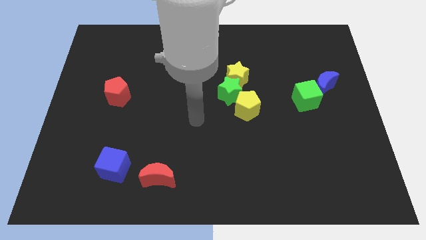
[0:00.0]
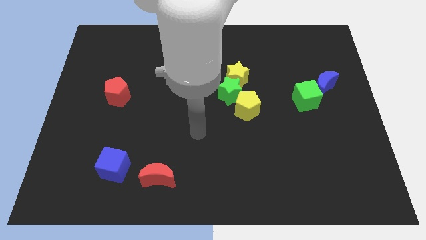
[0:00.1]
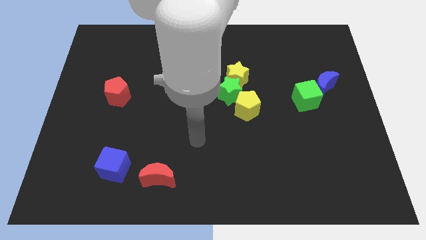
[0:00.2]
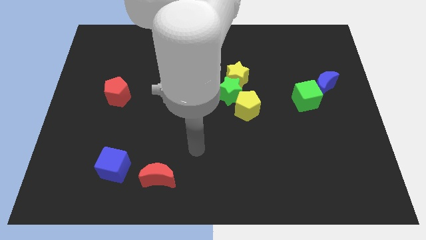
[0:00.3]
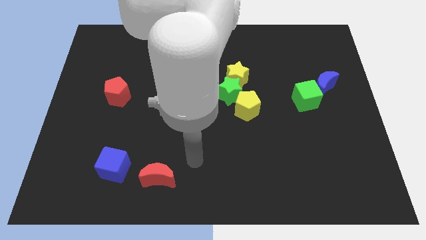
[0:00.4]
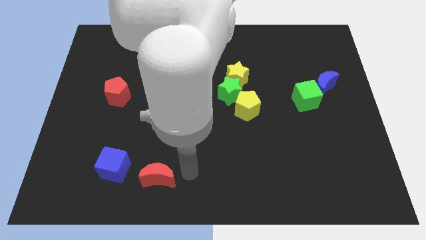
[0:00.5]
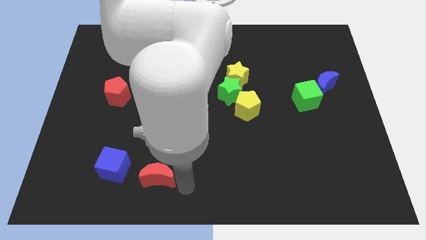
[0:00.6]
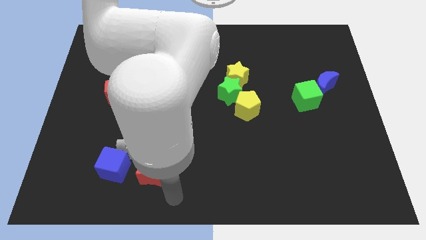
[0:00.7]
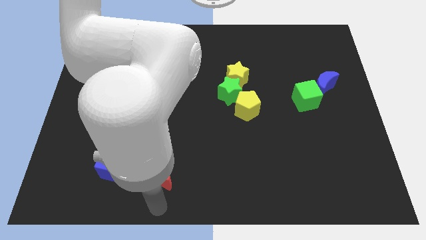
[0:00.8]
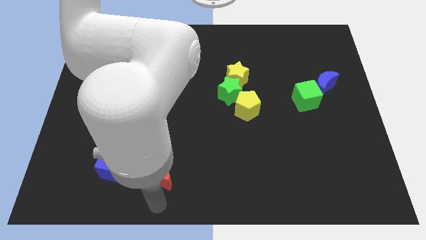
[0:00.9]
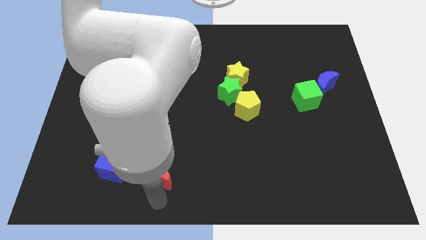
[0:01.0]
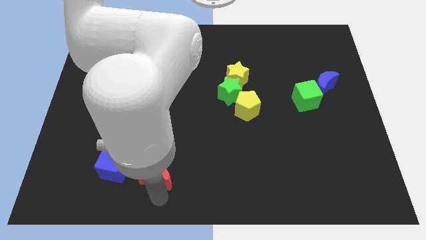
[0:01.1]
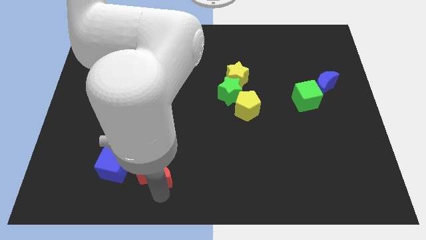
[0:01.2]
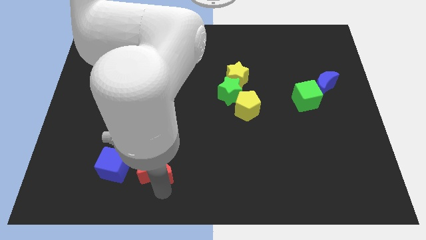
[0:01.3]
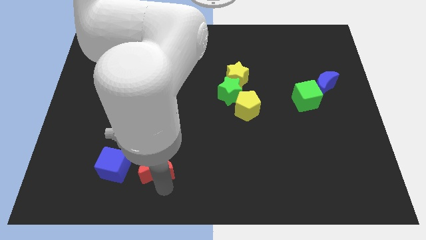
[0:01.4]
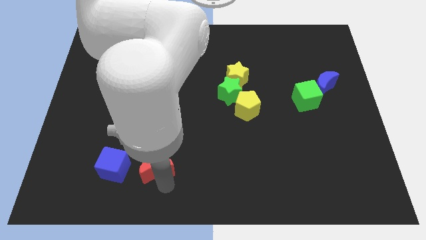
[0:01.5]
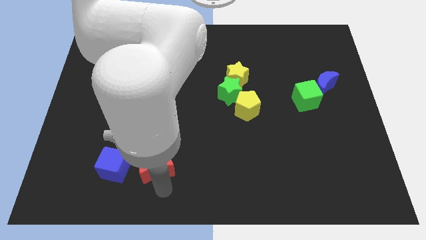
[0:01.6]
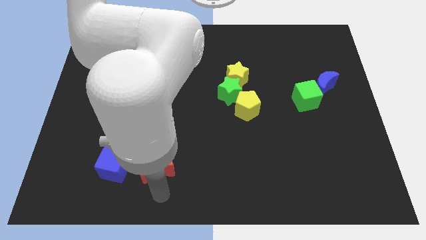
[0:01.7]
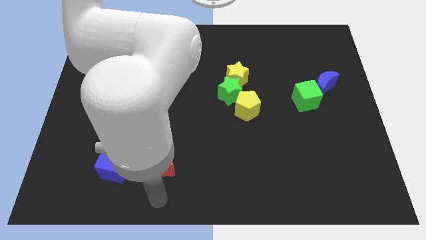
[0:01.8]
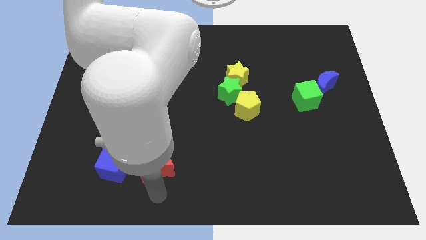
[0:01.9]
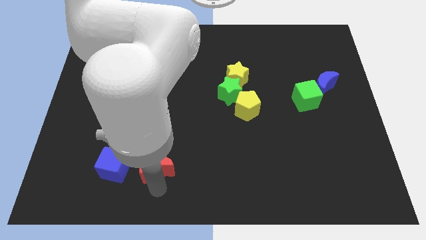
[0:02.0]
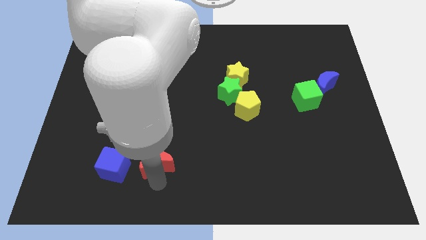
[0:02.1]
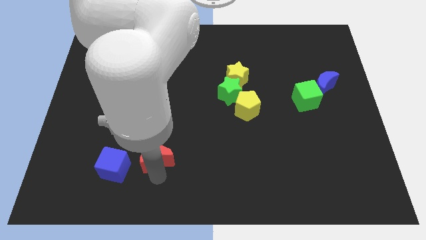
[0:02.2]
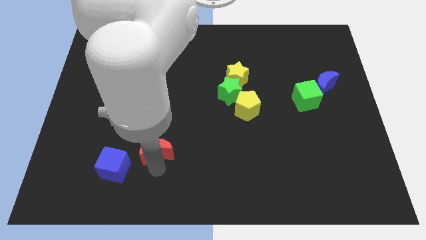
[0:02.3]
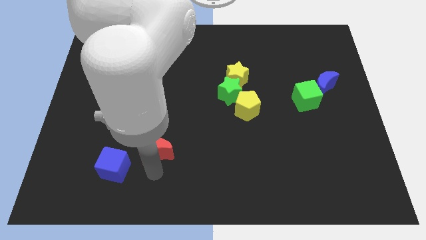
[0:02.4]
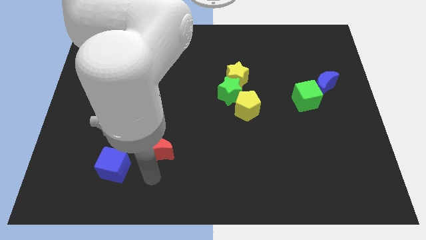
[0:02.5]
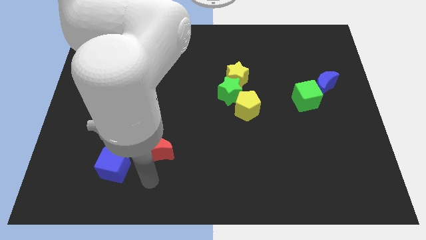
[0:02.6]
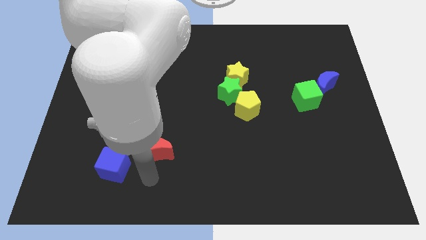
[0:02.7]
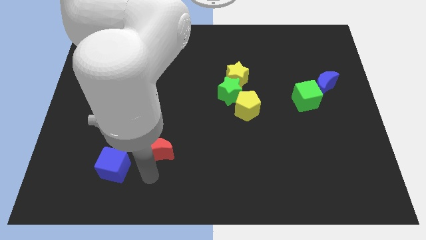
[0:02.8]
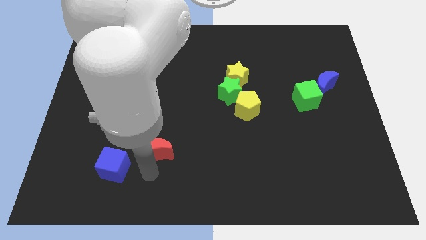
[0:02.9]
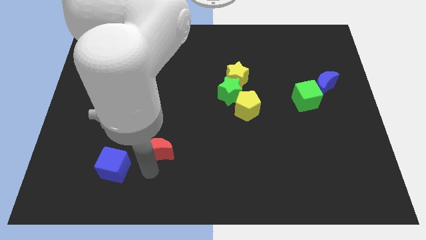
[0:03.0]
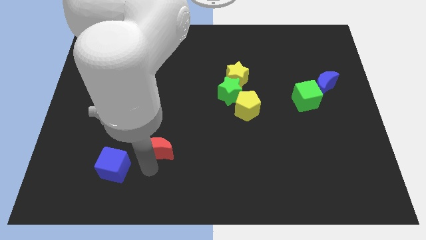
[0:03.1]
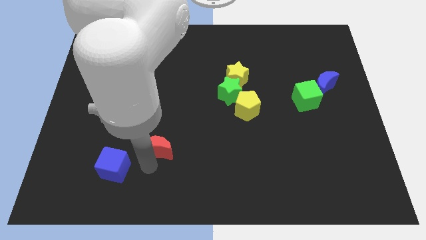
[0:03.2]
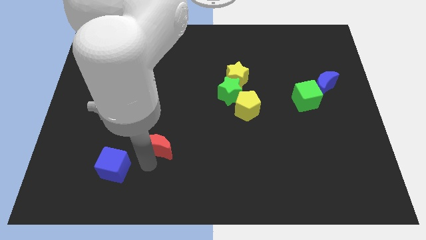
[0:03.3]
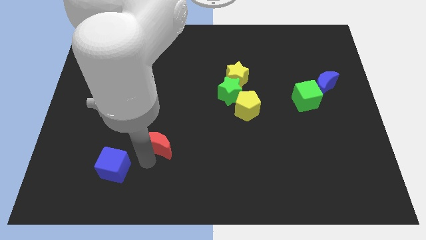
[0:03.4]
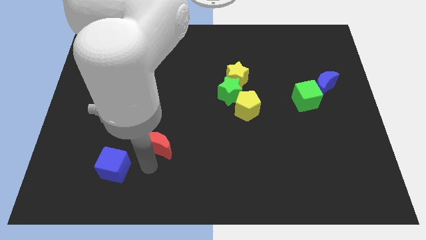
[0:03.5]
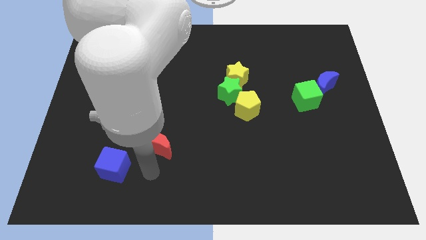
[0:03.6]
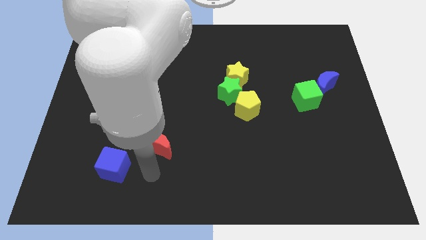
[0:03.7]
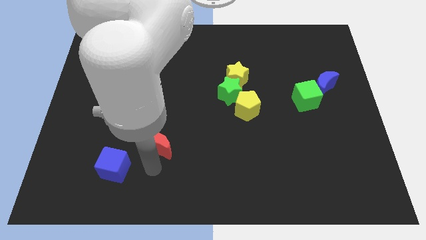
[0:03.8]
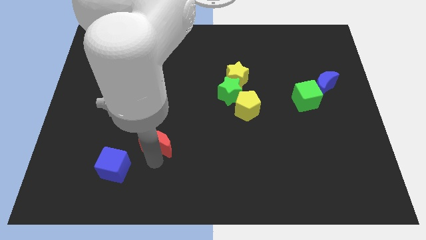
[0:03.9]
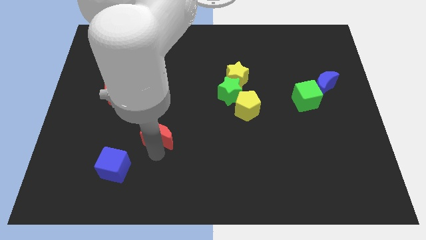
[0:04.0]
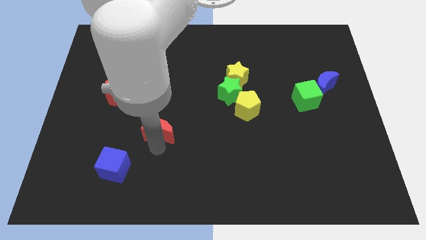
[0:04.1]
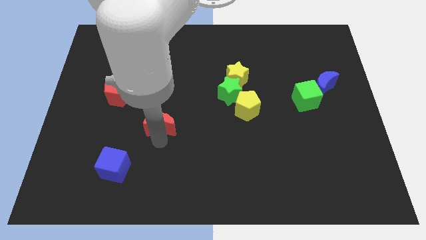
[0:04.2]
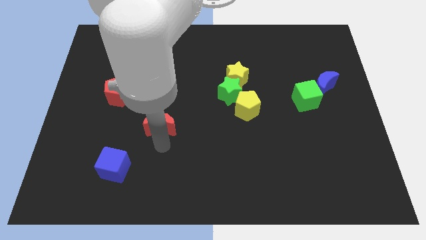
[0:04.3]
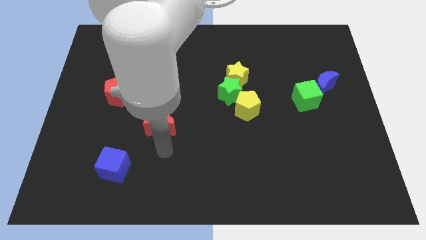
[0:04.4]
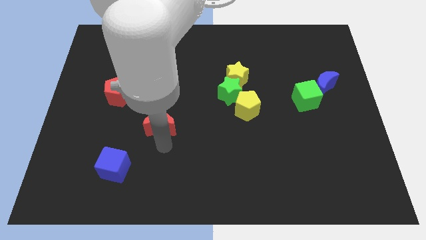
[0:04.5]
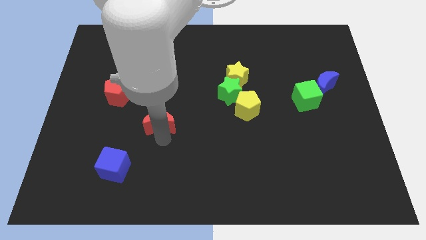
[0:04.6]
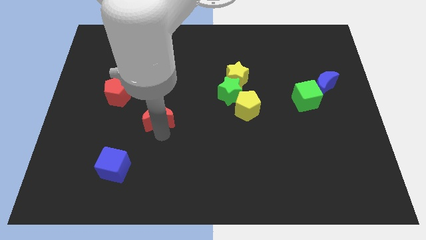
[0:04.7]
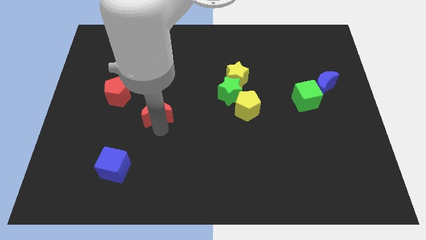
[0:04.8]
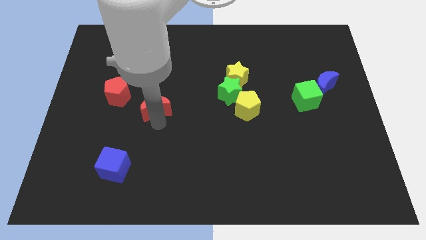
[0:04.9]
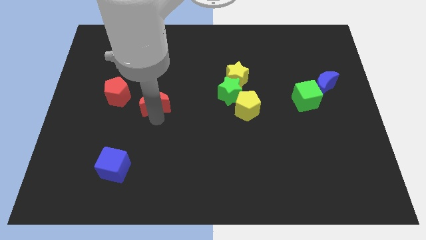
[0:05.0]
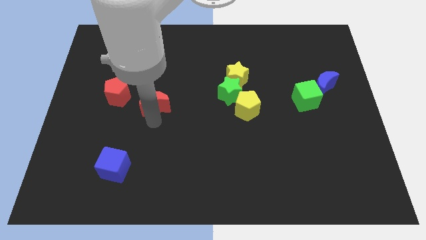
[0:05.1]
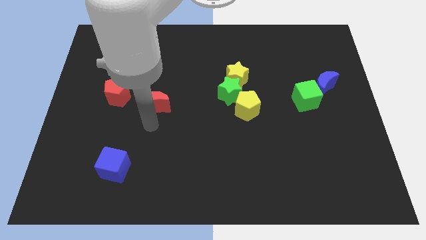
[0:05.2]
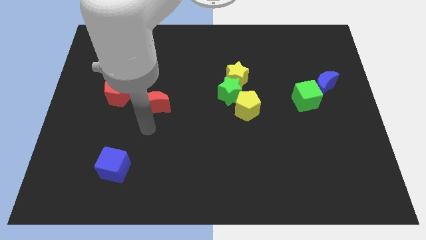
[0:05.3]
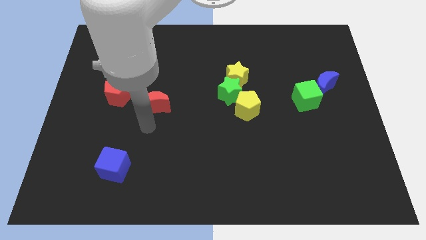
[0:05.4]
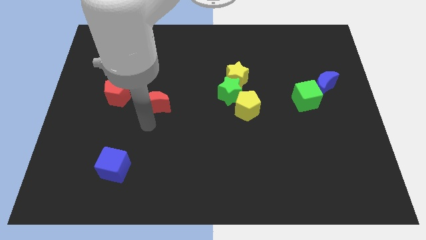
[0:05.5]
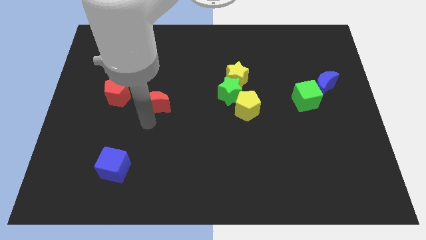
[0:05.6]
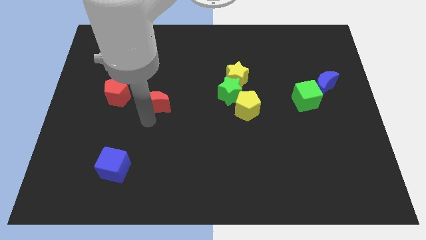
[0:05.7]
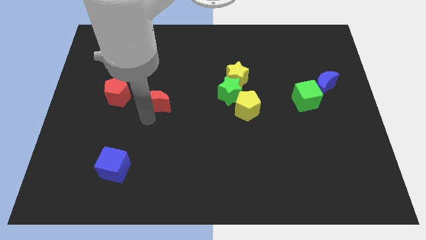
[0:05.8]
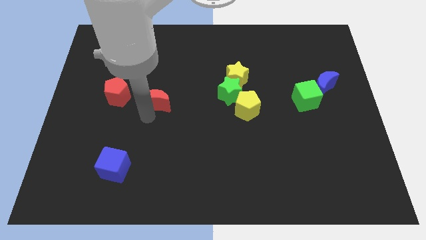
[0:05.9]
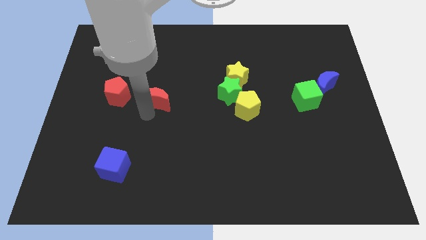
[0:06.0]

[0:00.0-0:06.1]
slide the red moon up

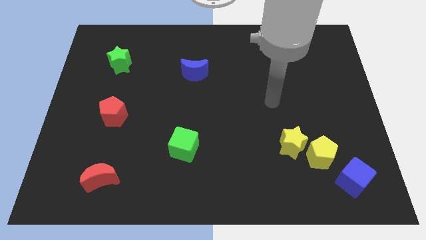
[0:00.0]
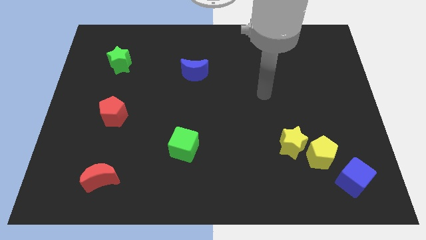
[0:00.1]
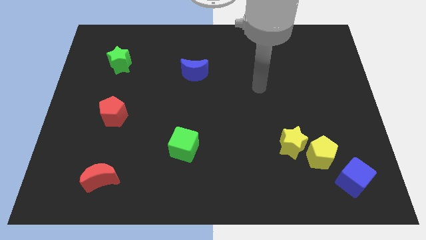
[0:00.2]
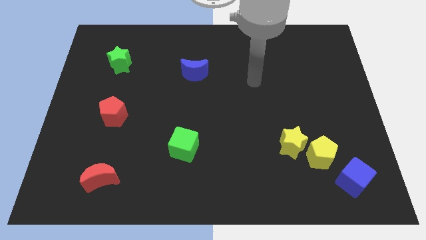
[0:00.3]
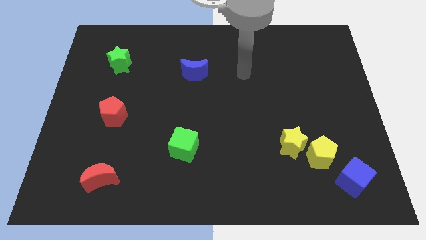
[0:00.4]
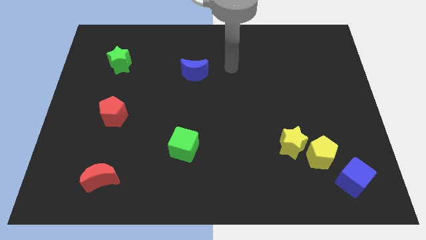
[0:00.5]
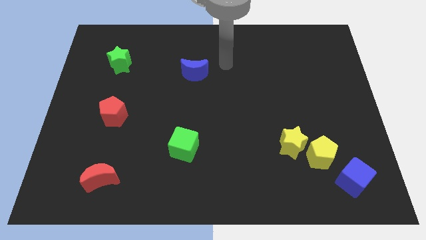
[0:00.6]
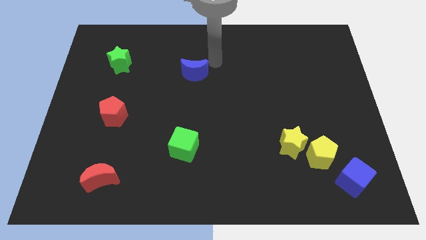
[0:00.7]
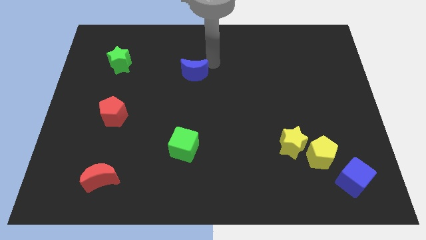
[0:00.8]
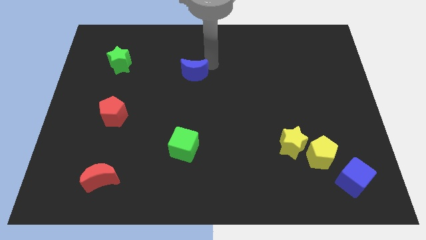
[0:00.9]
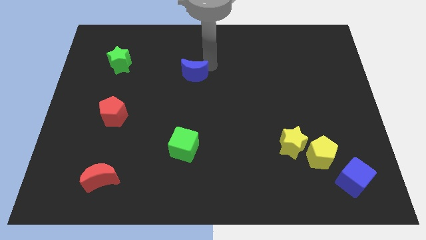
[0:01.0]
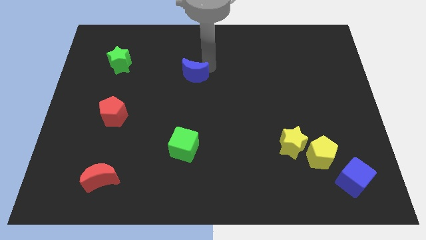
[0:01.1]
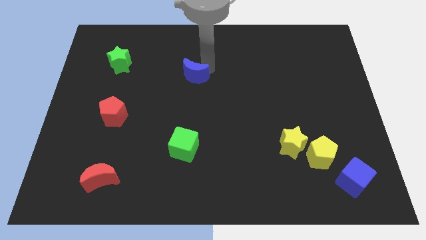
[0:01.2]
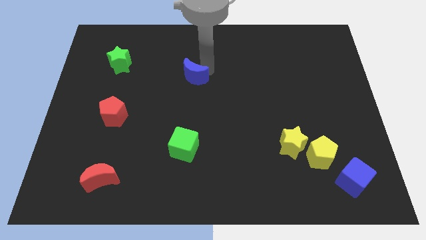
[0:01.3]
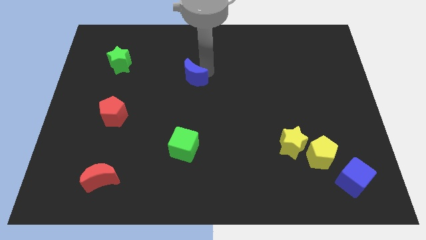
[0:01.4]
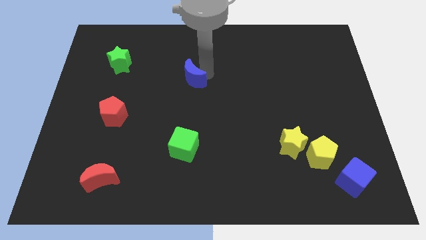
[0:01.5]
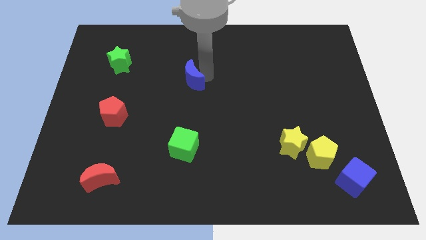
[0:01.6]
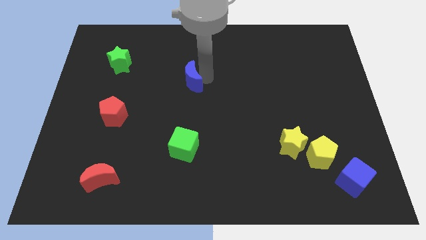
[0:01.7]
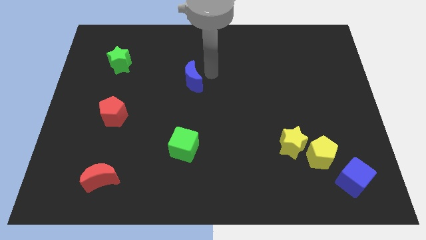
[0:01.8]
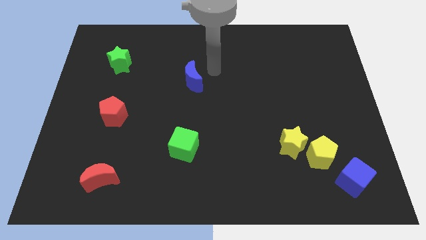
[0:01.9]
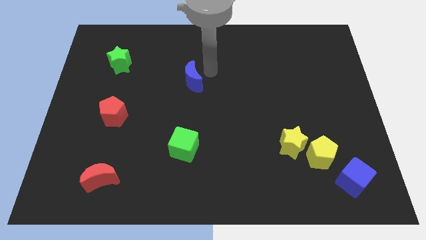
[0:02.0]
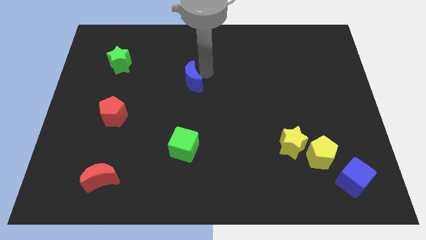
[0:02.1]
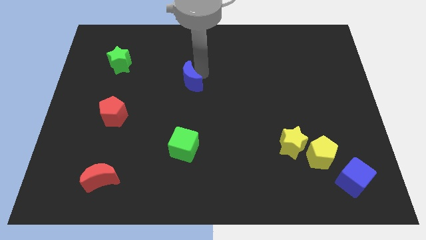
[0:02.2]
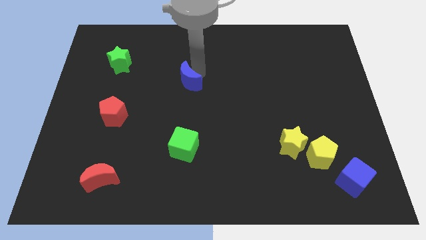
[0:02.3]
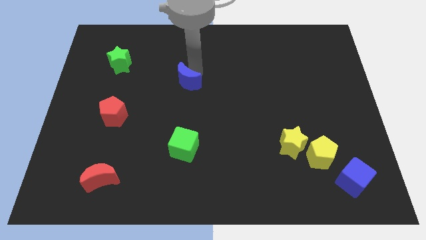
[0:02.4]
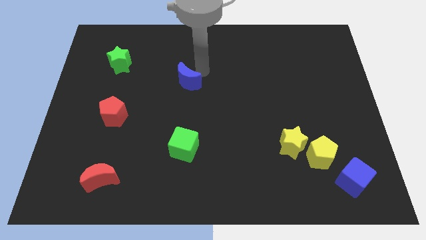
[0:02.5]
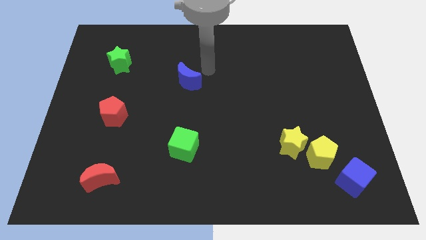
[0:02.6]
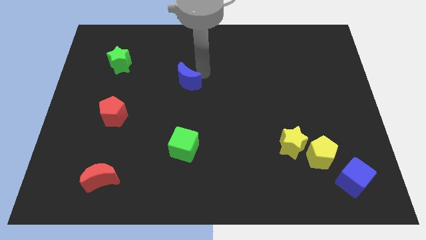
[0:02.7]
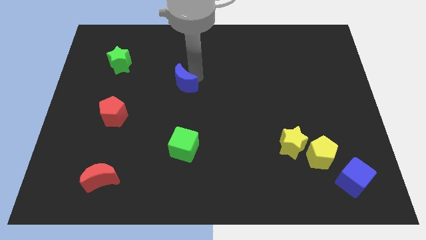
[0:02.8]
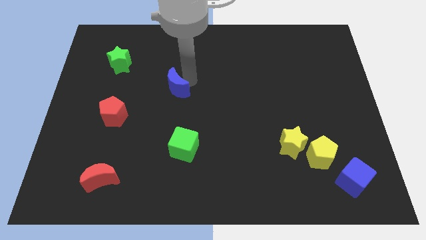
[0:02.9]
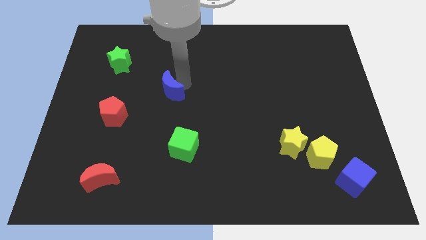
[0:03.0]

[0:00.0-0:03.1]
slightly move the blue moon diagonally downwards and left
